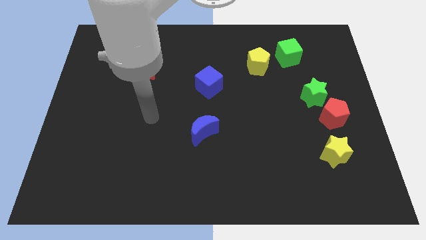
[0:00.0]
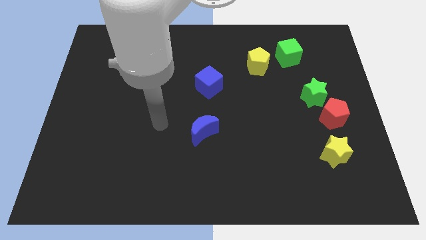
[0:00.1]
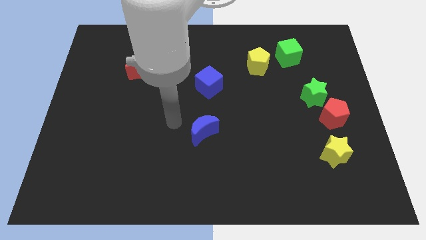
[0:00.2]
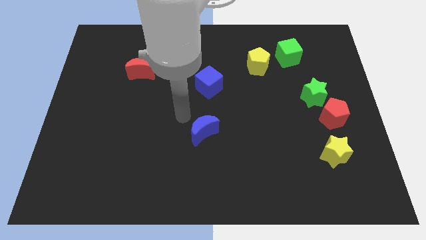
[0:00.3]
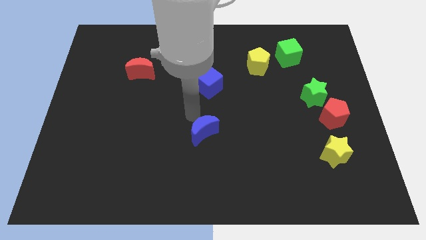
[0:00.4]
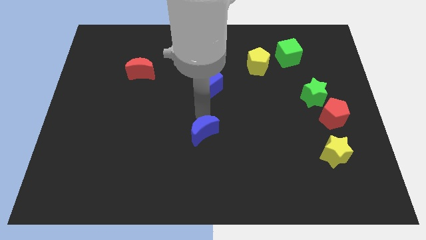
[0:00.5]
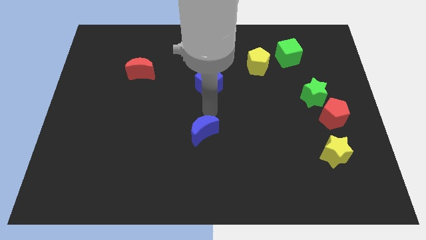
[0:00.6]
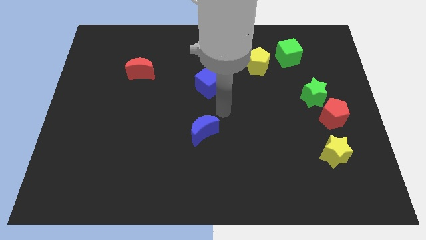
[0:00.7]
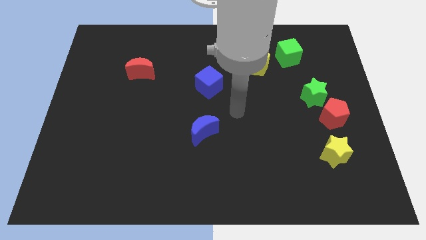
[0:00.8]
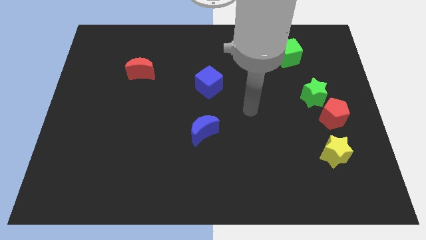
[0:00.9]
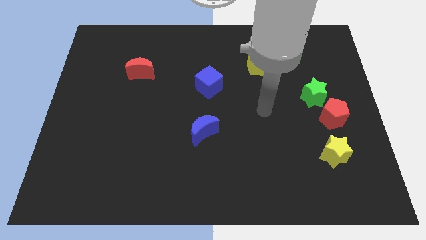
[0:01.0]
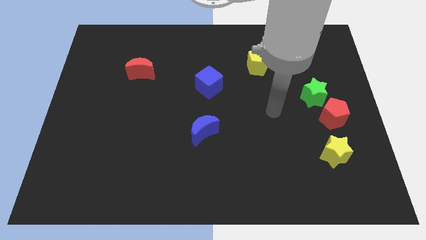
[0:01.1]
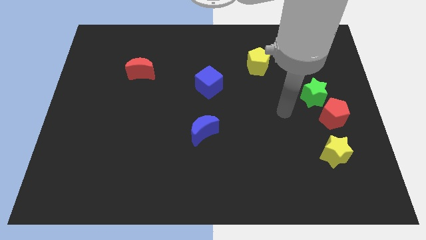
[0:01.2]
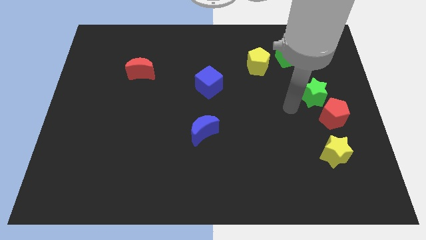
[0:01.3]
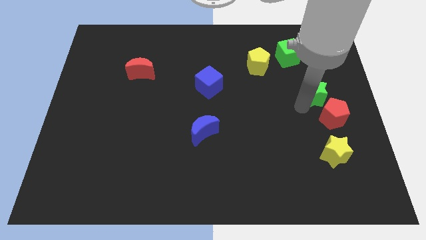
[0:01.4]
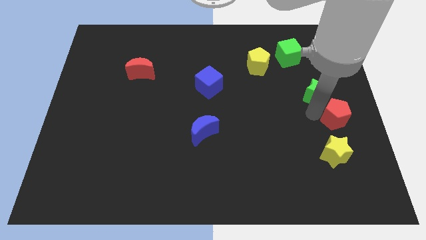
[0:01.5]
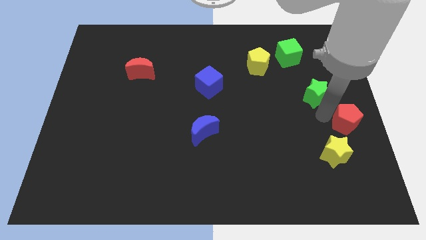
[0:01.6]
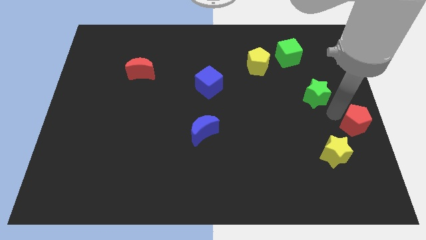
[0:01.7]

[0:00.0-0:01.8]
separate the green star from the red pentagon

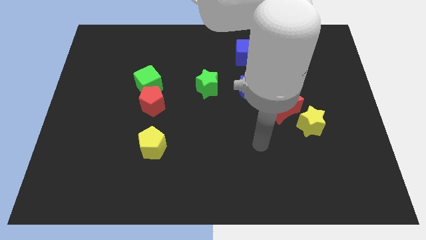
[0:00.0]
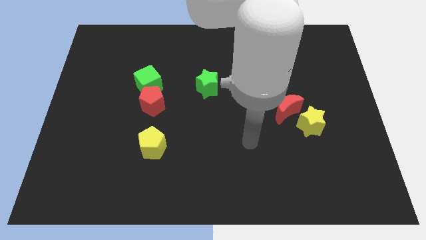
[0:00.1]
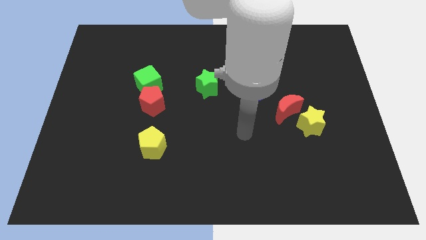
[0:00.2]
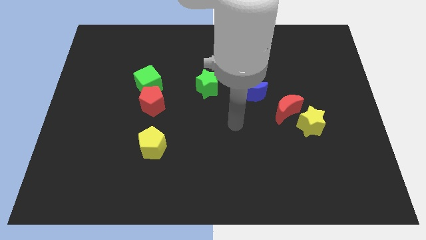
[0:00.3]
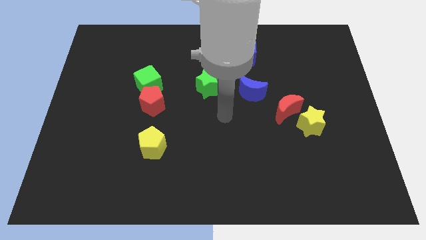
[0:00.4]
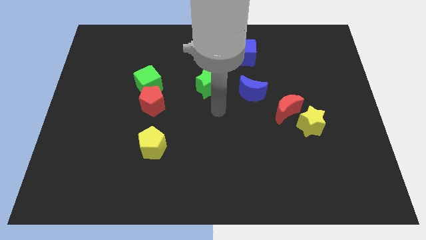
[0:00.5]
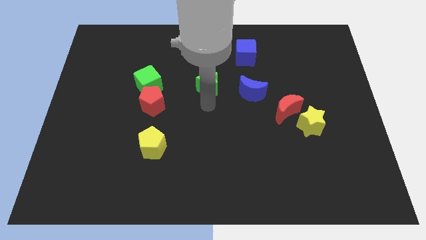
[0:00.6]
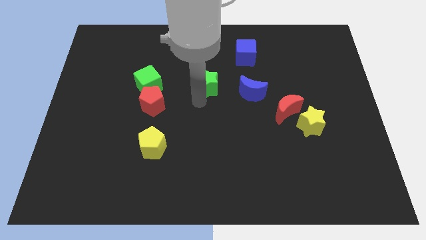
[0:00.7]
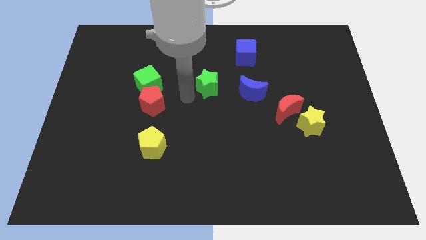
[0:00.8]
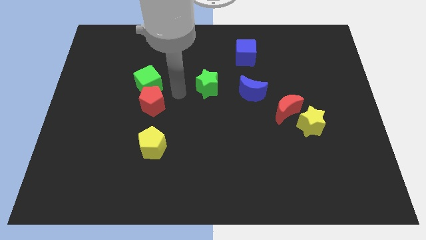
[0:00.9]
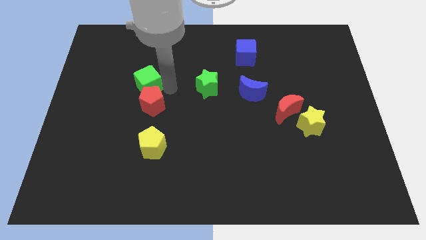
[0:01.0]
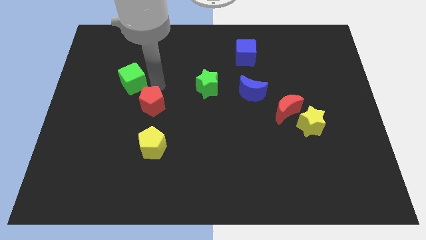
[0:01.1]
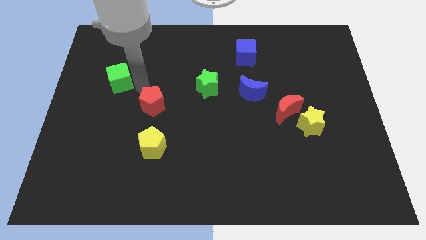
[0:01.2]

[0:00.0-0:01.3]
move the red pentagon away from the green cube

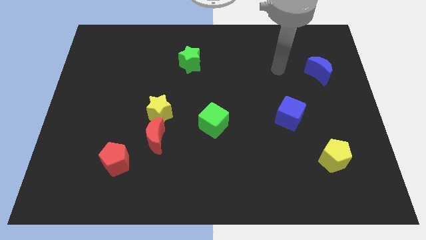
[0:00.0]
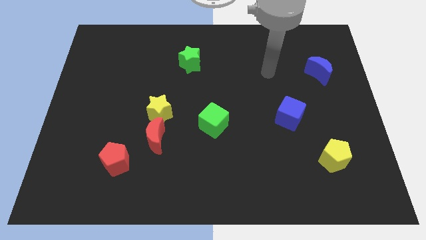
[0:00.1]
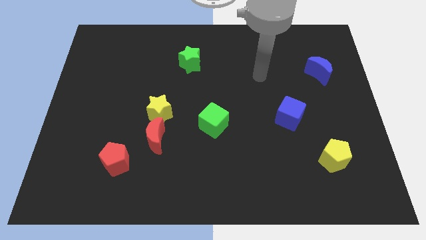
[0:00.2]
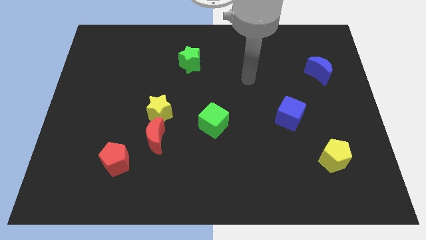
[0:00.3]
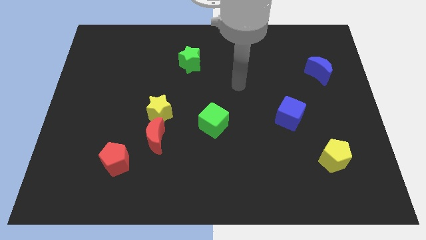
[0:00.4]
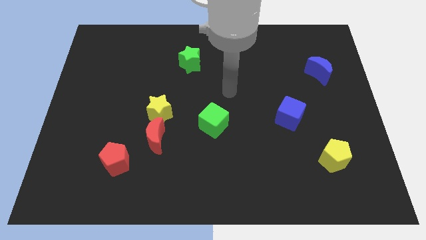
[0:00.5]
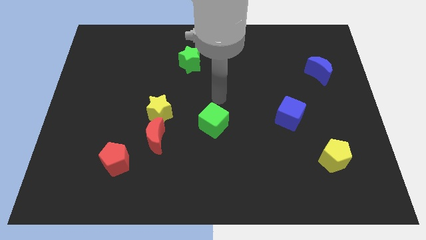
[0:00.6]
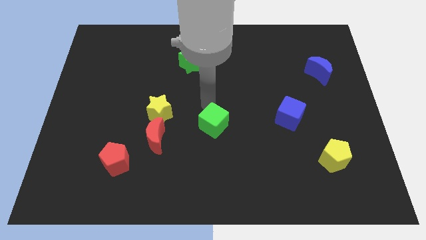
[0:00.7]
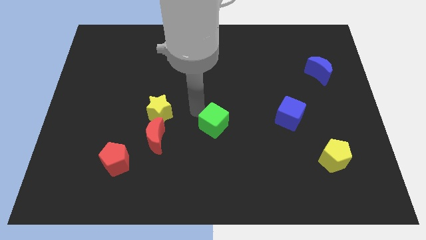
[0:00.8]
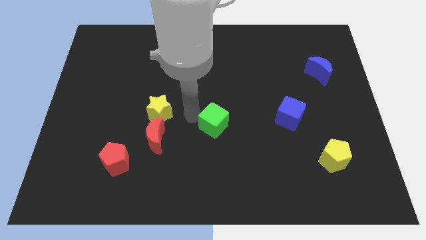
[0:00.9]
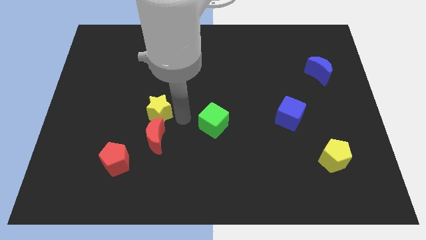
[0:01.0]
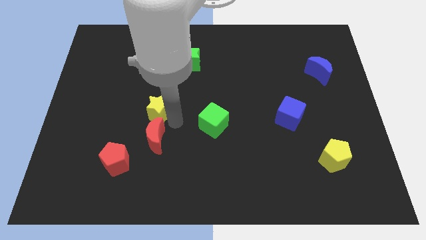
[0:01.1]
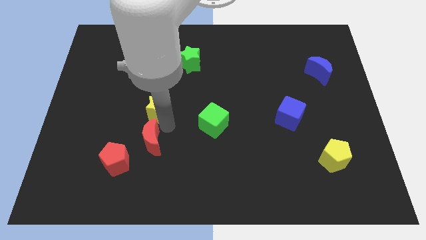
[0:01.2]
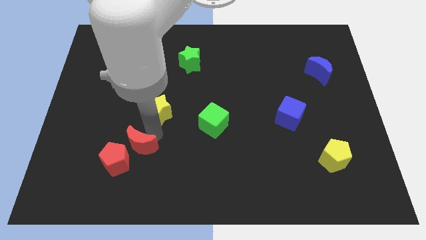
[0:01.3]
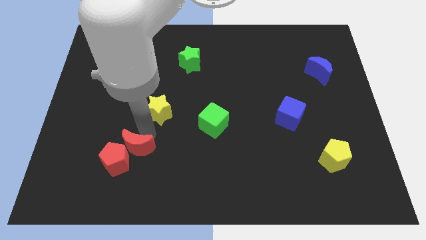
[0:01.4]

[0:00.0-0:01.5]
pull the yellow star apart from the red moon

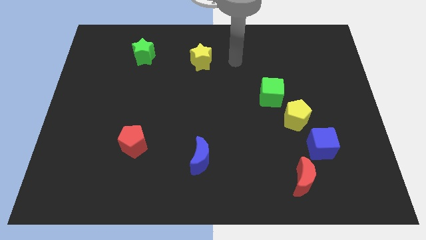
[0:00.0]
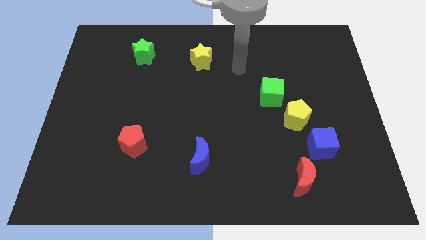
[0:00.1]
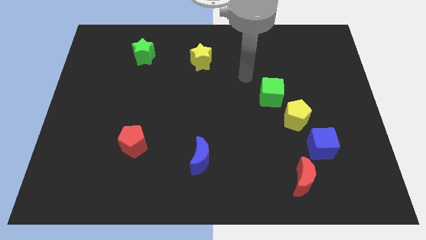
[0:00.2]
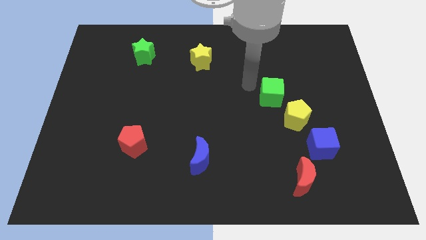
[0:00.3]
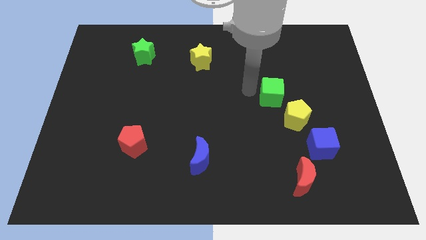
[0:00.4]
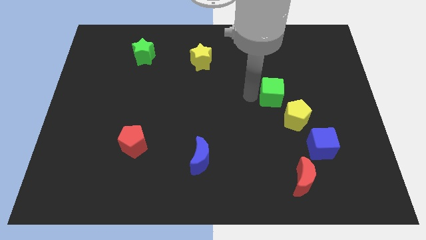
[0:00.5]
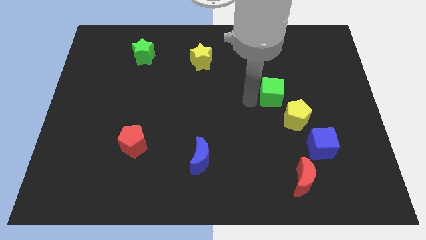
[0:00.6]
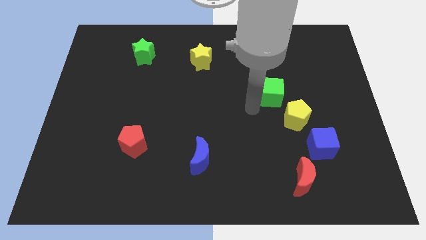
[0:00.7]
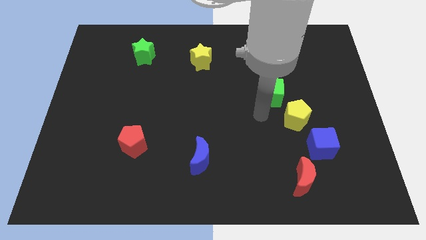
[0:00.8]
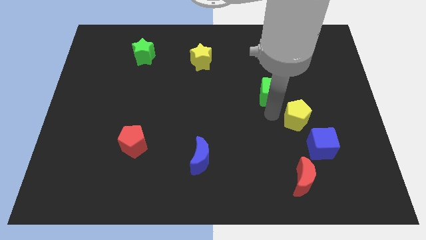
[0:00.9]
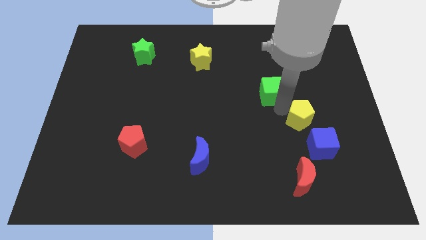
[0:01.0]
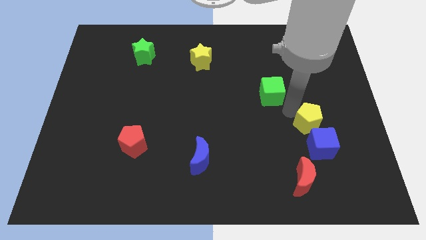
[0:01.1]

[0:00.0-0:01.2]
move the green cube away from the yellow pentagon

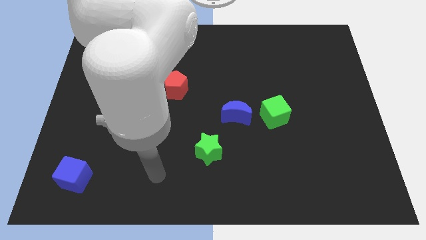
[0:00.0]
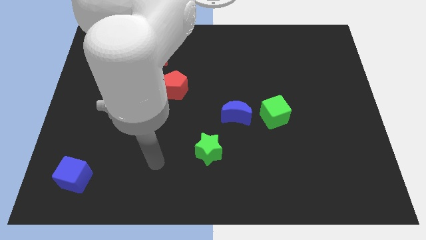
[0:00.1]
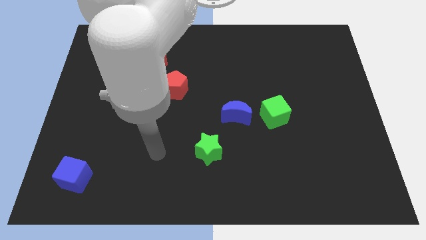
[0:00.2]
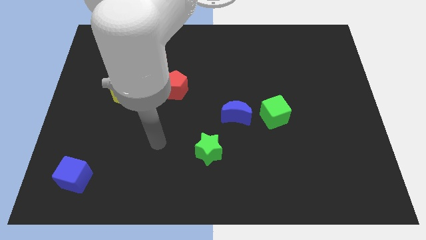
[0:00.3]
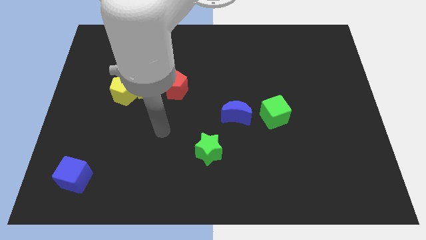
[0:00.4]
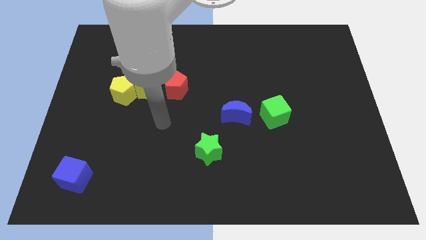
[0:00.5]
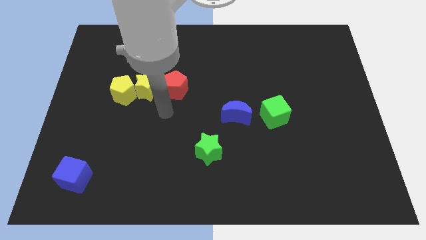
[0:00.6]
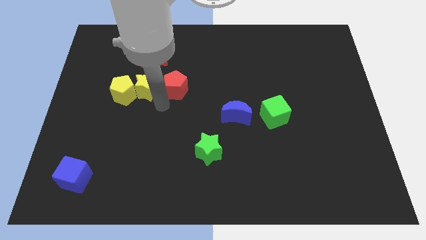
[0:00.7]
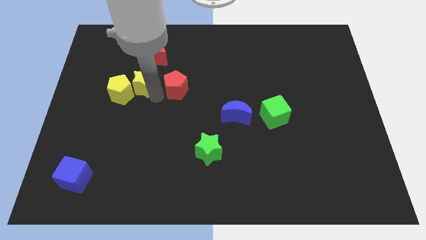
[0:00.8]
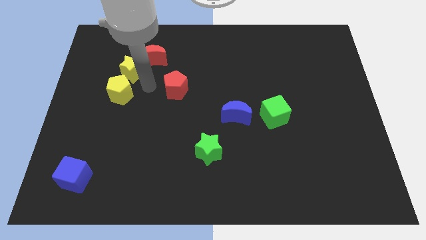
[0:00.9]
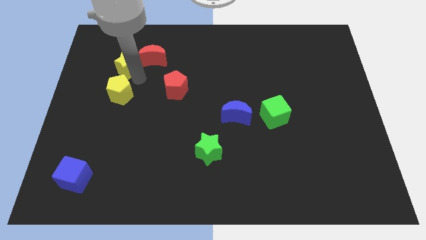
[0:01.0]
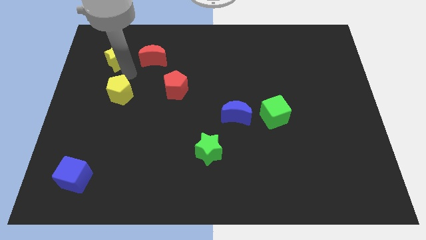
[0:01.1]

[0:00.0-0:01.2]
pull the yellow pentagon apart from the yellow star

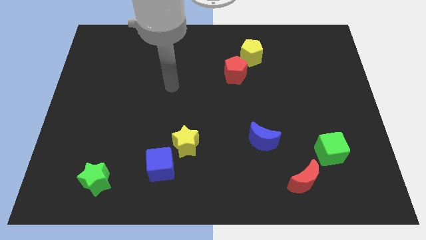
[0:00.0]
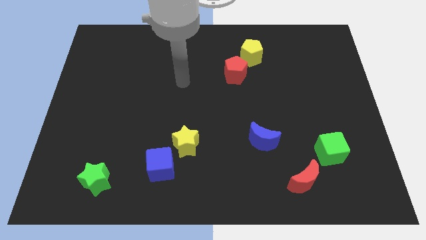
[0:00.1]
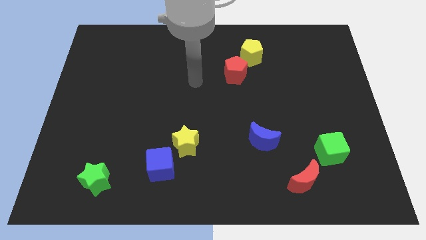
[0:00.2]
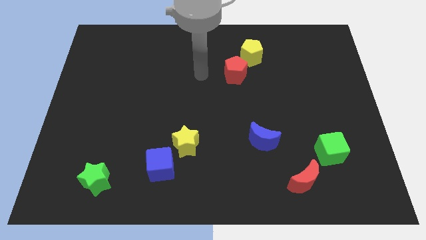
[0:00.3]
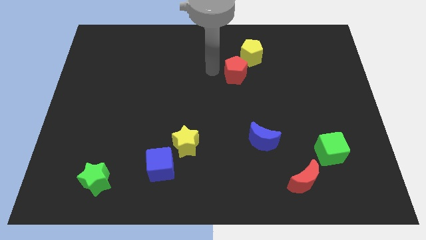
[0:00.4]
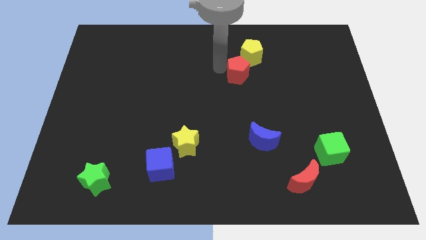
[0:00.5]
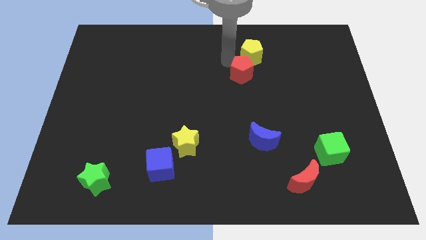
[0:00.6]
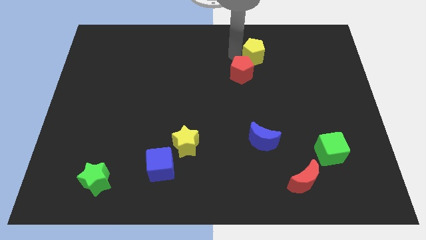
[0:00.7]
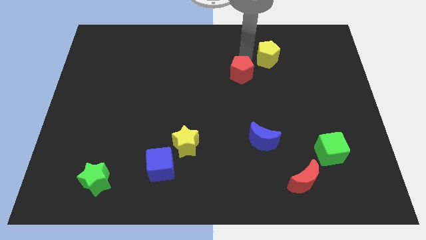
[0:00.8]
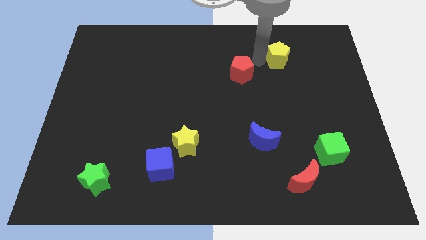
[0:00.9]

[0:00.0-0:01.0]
pull the red pentagon apart from the yellow pentagon

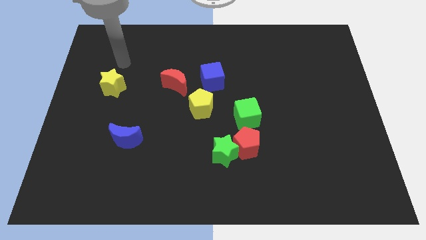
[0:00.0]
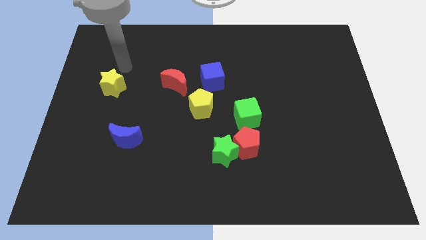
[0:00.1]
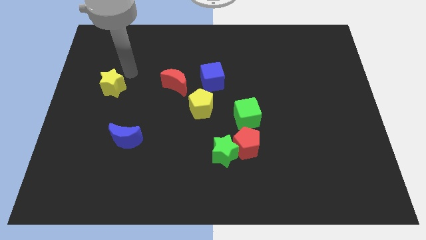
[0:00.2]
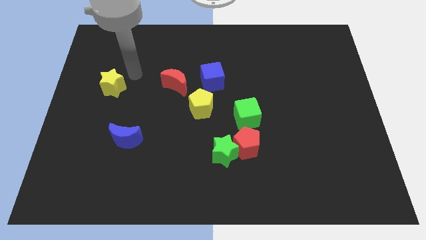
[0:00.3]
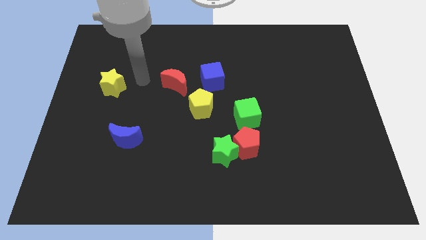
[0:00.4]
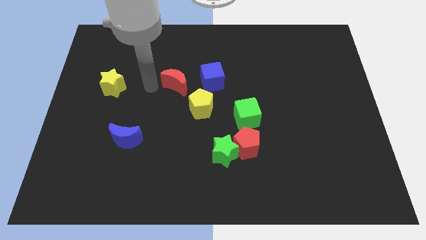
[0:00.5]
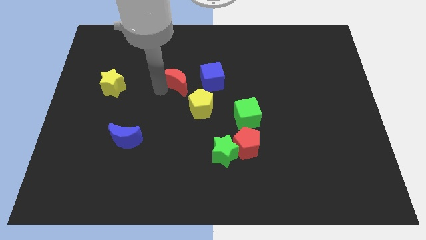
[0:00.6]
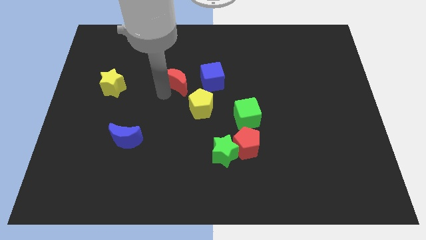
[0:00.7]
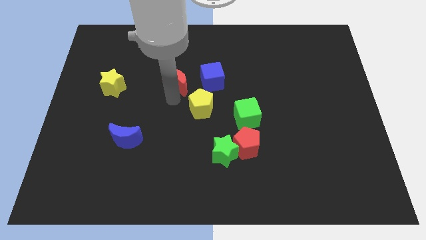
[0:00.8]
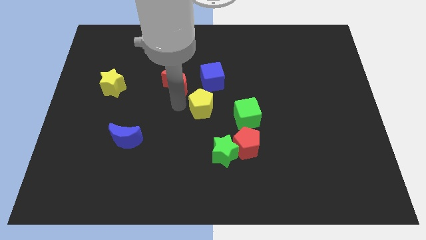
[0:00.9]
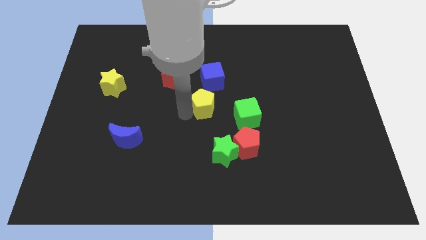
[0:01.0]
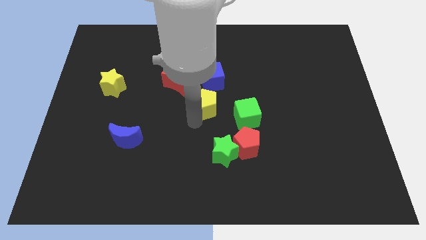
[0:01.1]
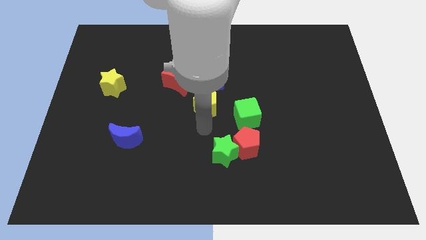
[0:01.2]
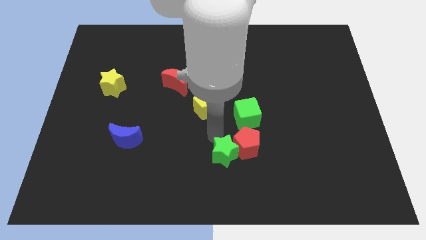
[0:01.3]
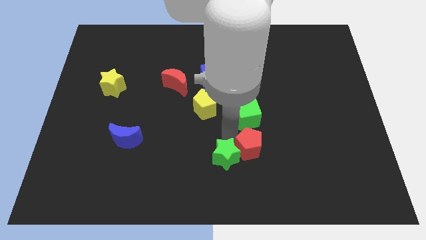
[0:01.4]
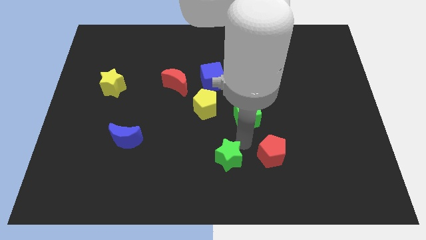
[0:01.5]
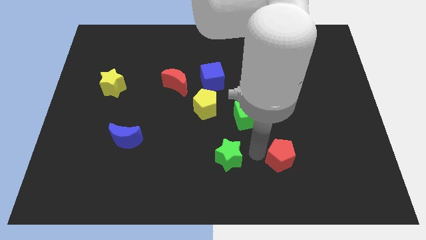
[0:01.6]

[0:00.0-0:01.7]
move the green star away from the red pentagon
